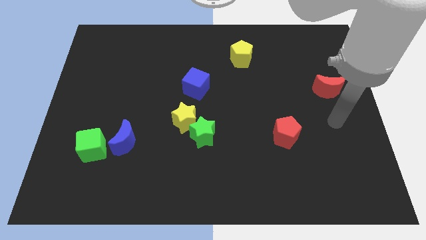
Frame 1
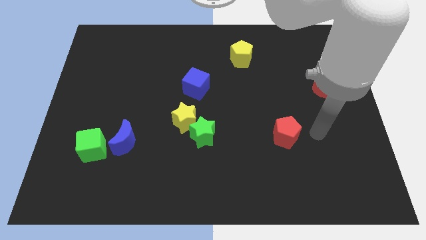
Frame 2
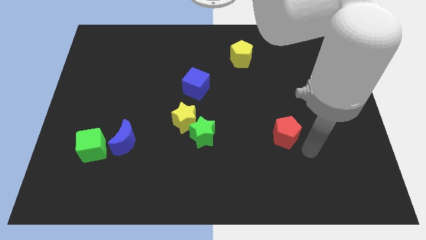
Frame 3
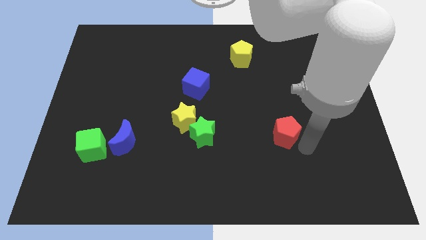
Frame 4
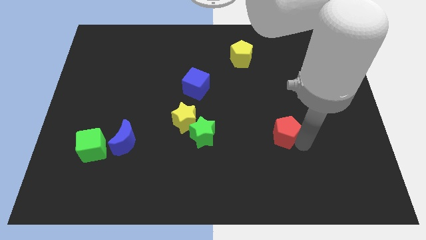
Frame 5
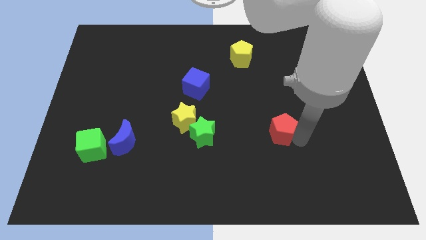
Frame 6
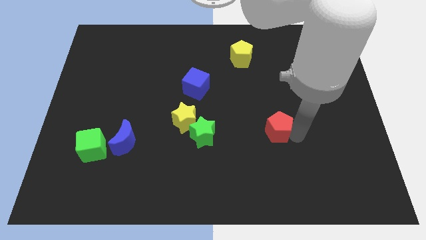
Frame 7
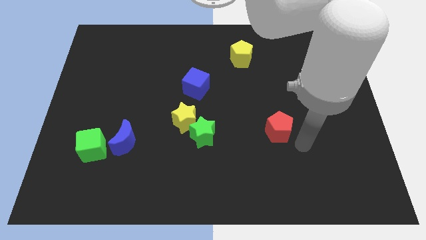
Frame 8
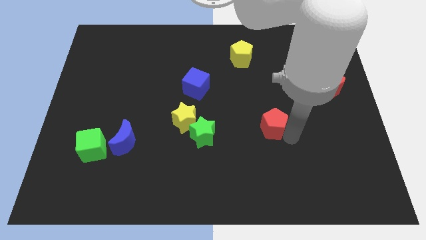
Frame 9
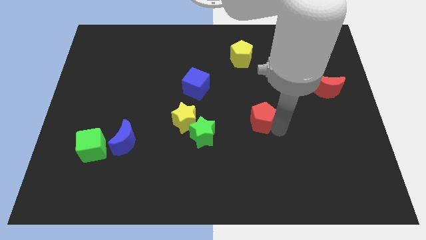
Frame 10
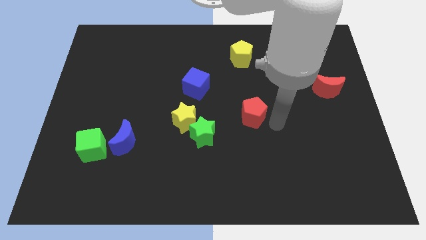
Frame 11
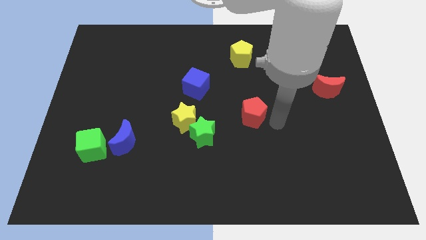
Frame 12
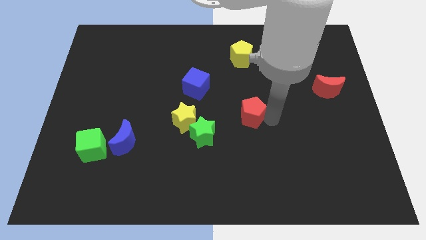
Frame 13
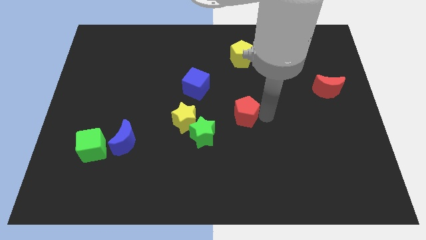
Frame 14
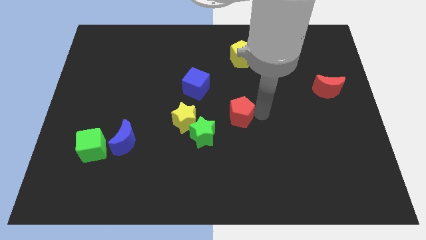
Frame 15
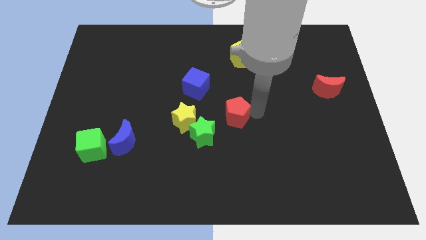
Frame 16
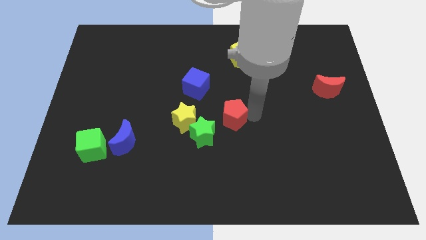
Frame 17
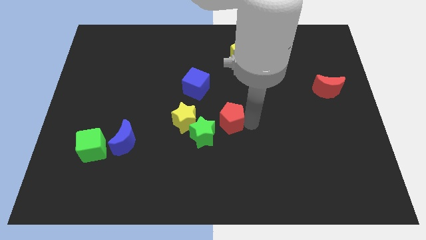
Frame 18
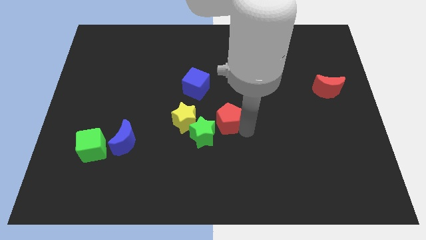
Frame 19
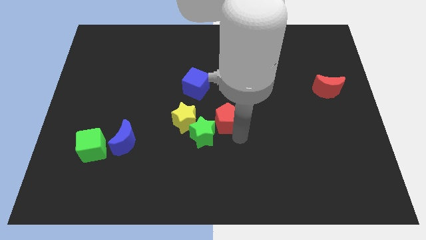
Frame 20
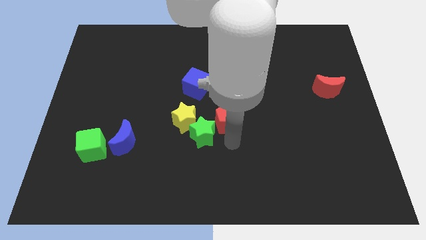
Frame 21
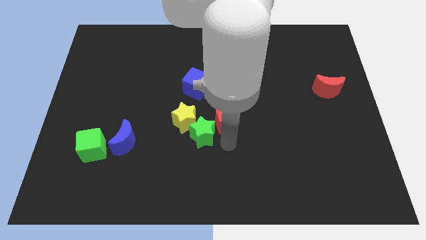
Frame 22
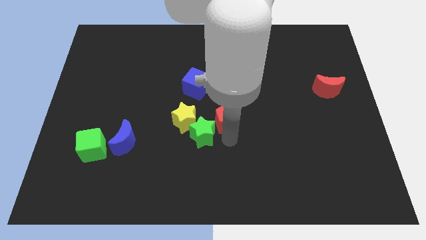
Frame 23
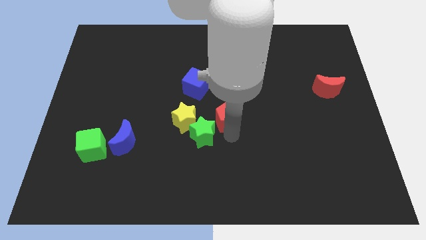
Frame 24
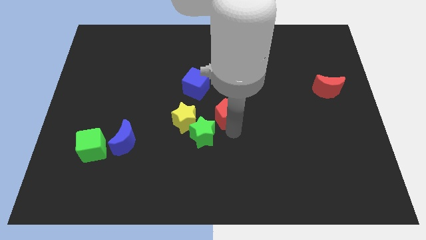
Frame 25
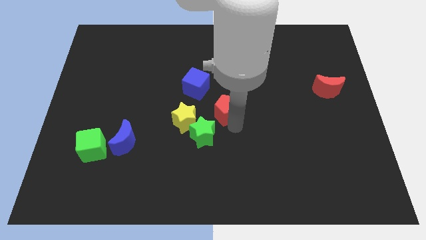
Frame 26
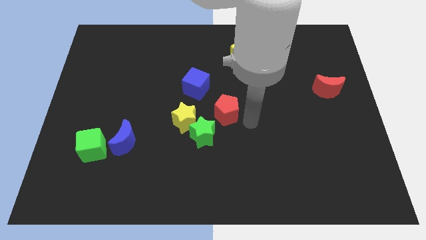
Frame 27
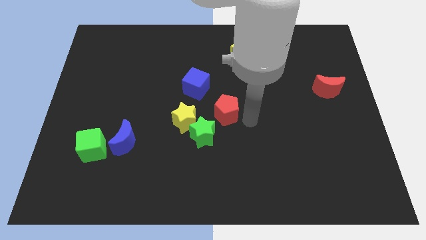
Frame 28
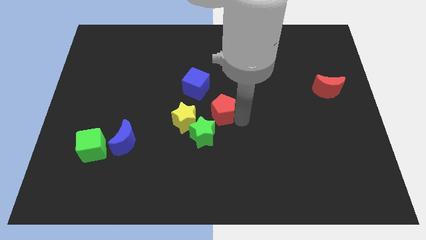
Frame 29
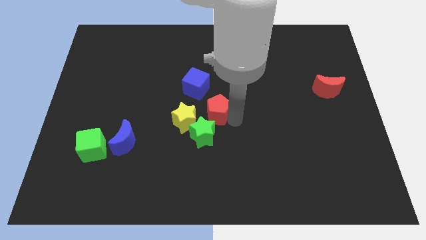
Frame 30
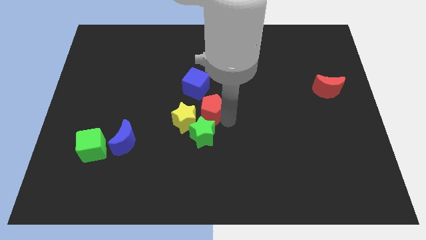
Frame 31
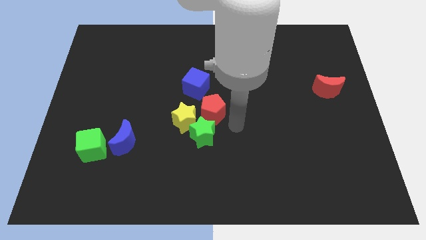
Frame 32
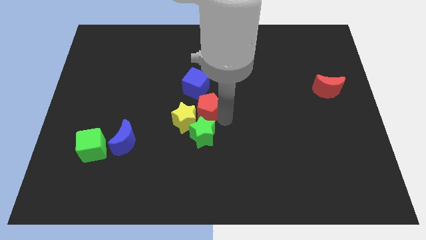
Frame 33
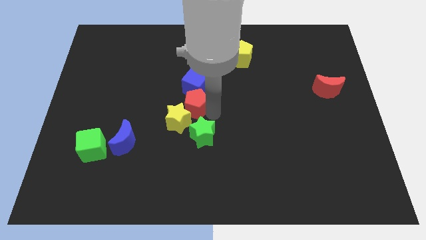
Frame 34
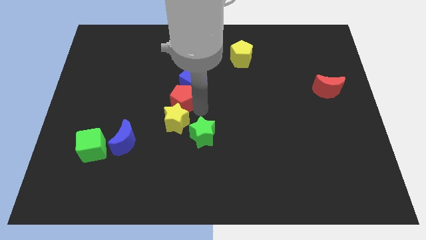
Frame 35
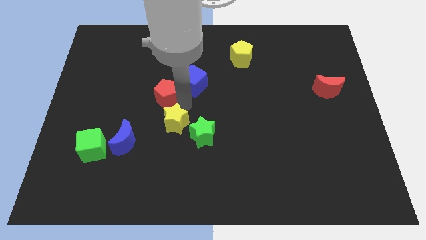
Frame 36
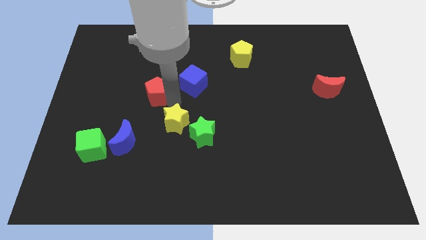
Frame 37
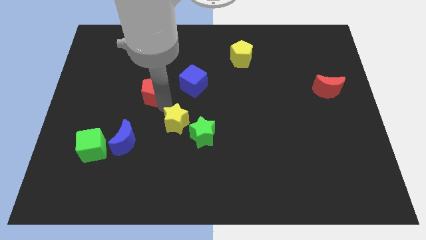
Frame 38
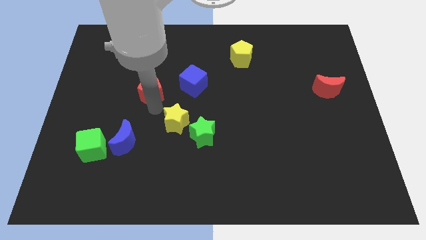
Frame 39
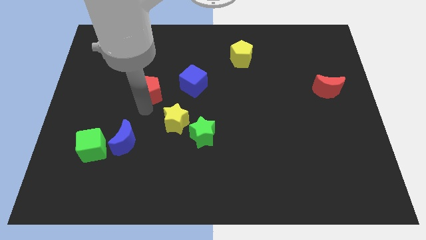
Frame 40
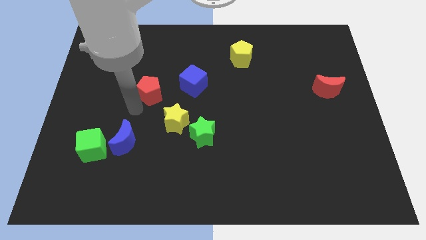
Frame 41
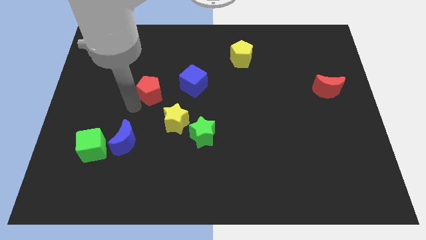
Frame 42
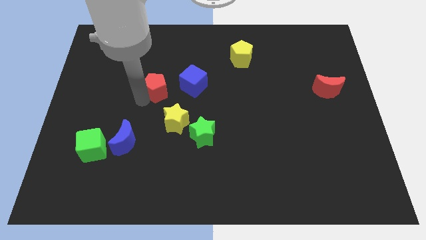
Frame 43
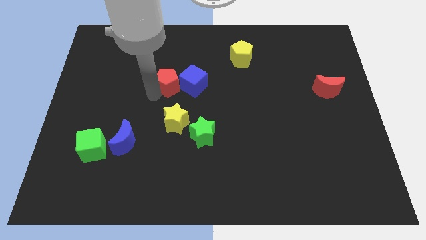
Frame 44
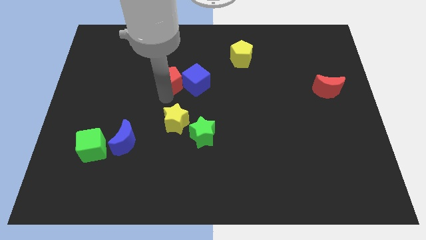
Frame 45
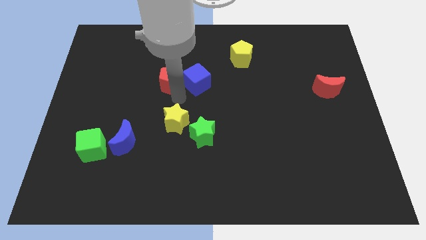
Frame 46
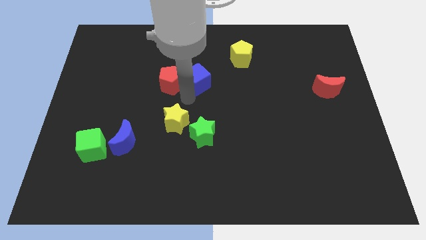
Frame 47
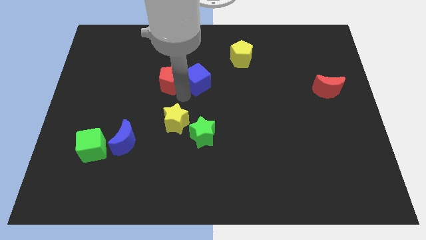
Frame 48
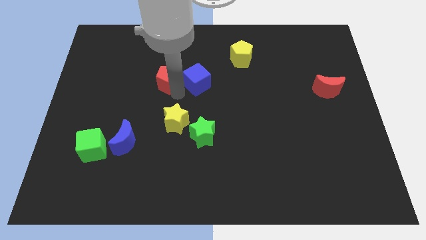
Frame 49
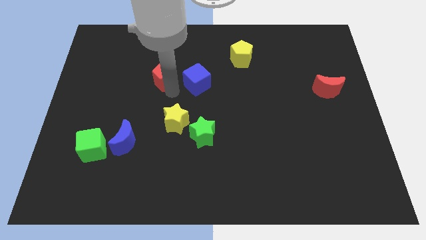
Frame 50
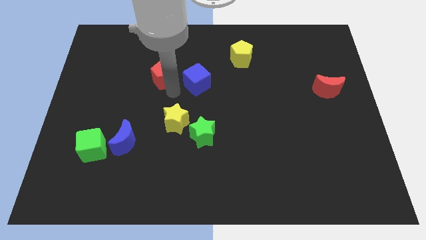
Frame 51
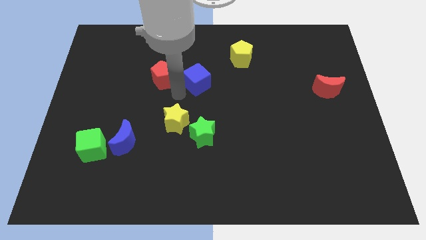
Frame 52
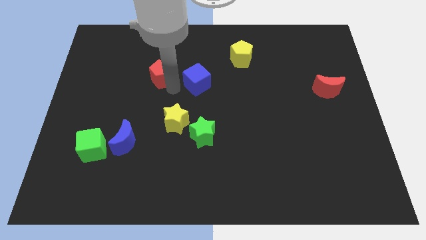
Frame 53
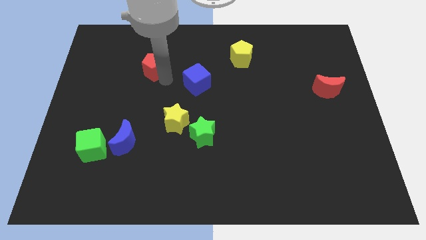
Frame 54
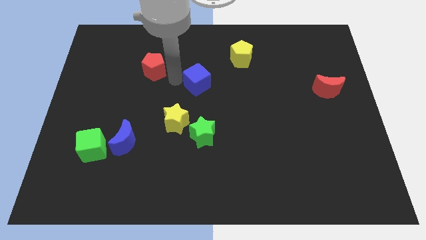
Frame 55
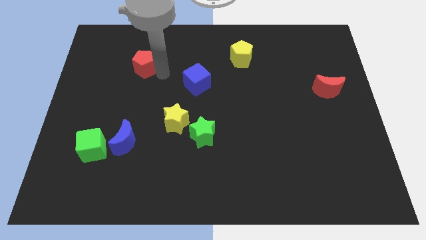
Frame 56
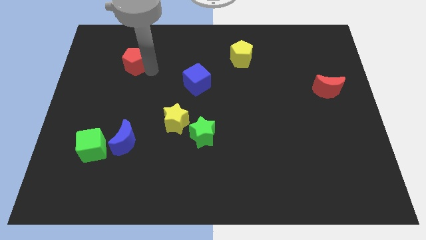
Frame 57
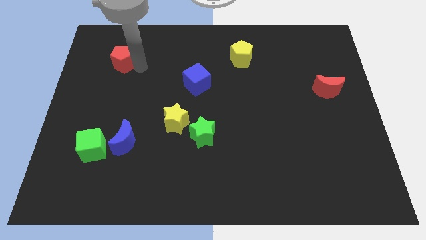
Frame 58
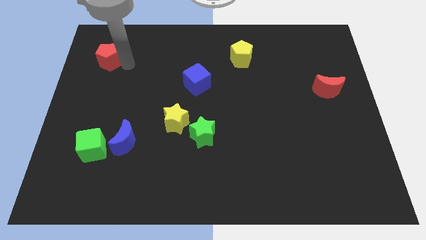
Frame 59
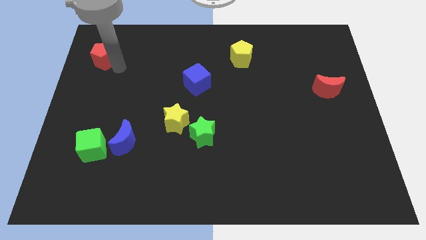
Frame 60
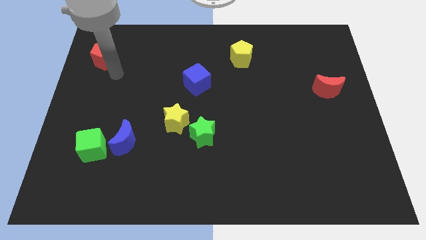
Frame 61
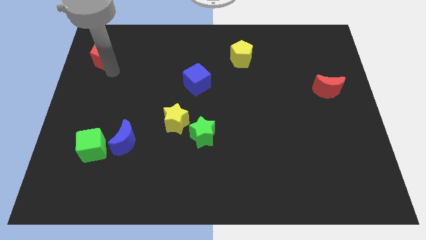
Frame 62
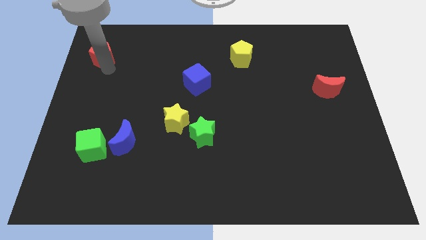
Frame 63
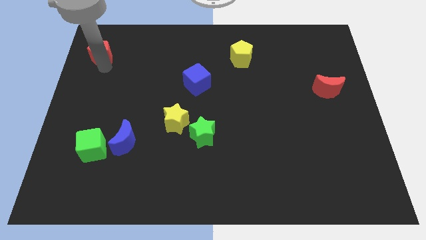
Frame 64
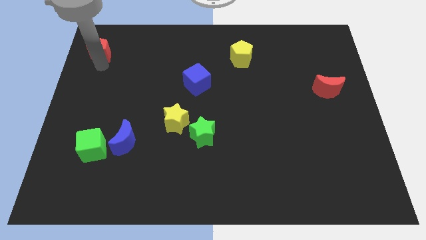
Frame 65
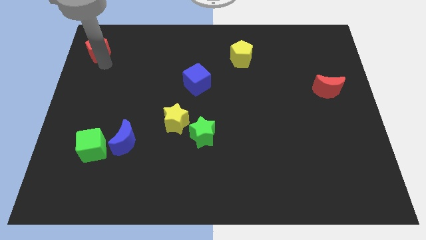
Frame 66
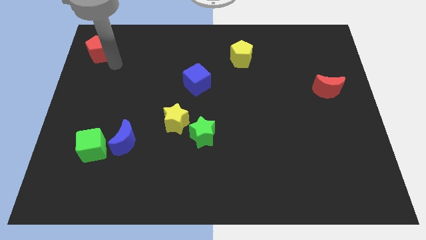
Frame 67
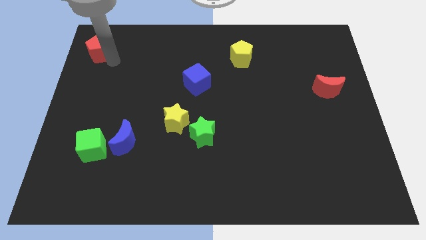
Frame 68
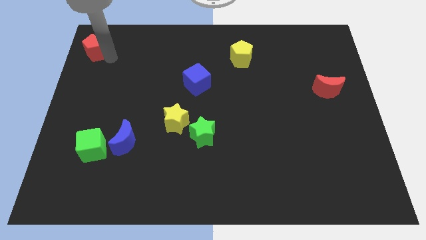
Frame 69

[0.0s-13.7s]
slide the red pentagon to the top left of the board
